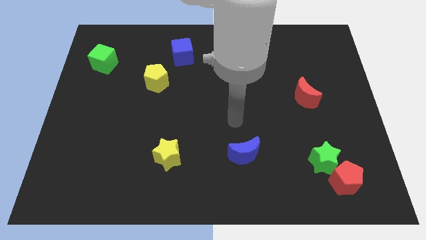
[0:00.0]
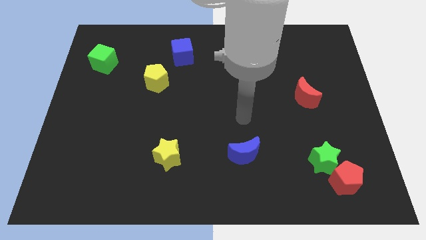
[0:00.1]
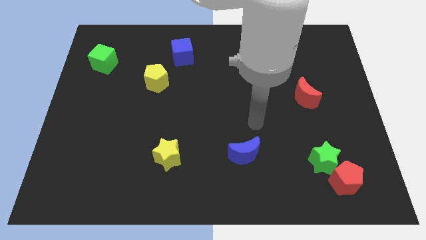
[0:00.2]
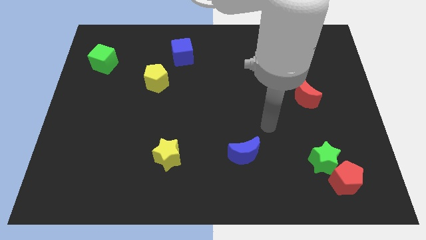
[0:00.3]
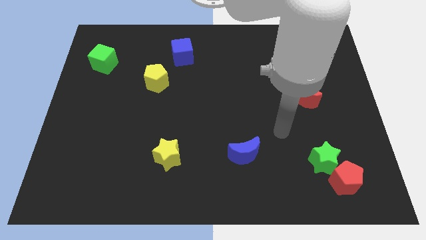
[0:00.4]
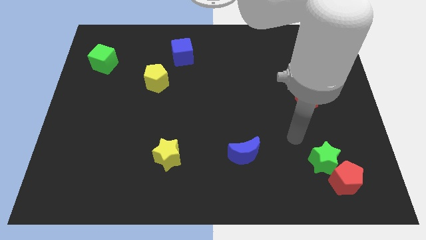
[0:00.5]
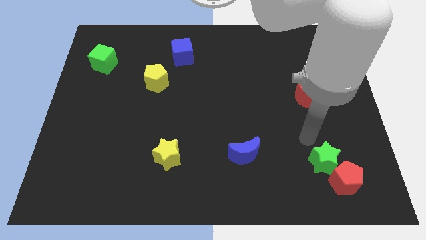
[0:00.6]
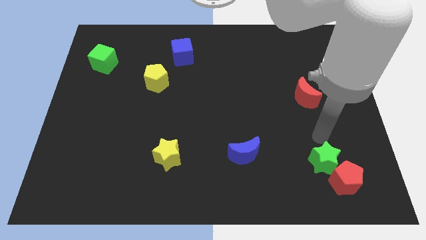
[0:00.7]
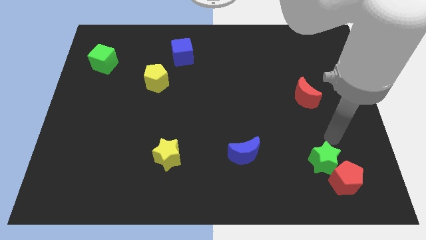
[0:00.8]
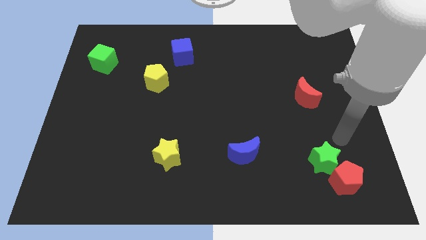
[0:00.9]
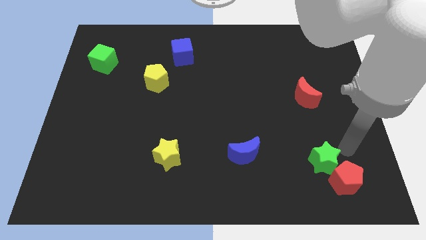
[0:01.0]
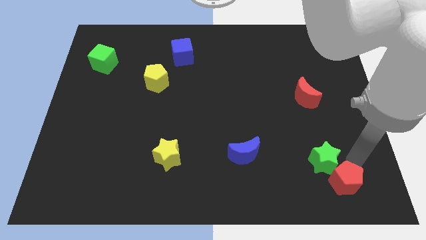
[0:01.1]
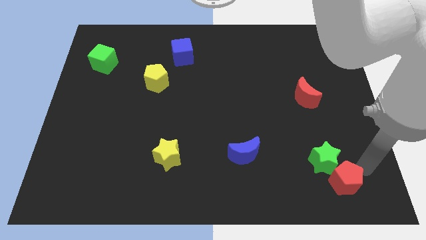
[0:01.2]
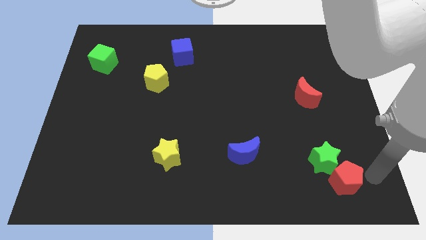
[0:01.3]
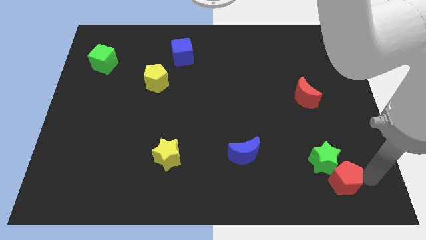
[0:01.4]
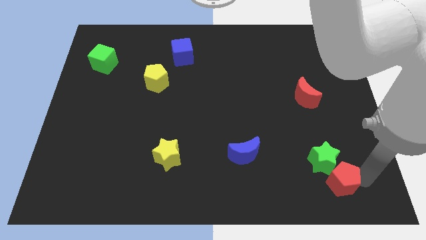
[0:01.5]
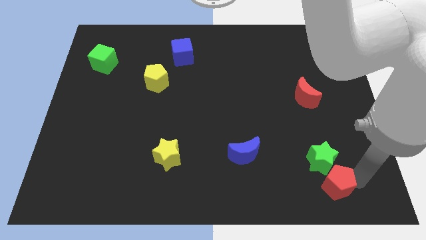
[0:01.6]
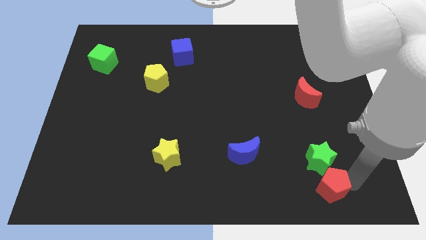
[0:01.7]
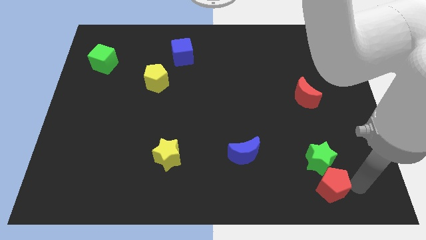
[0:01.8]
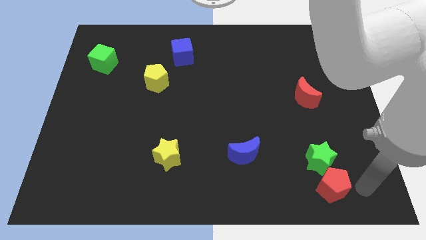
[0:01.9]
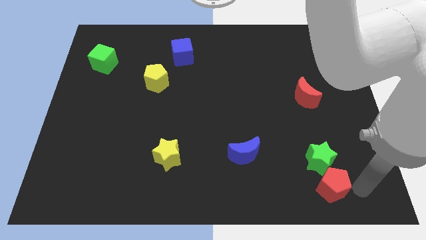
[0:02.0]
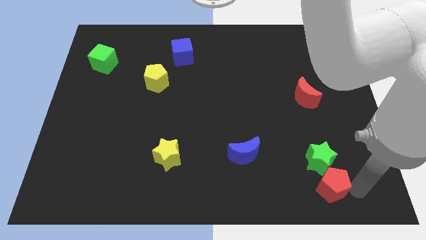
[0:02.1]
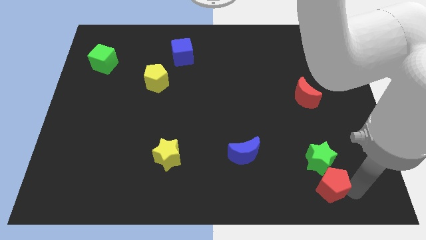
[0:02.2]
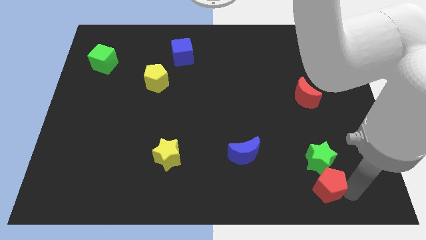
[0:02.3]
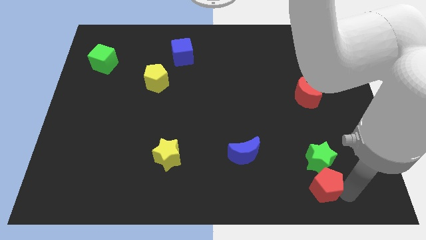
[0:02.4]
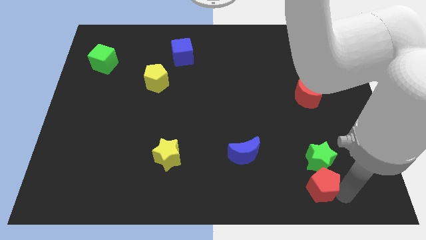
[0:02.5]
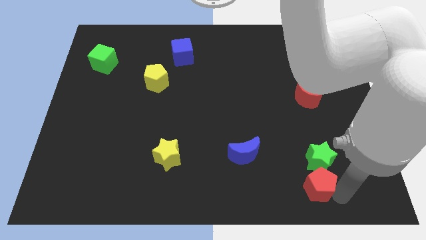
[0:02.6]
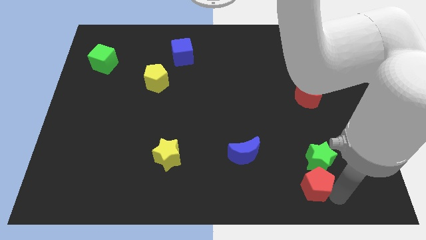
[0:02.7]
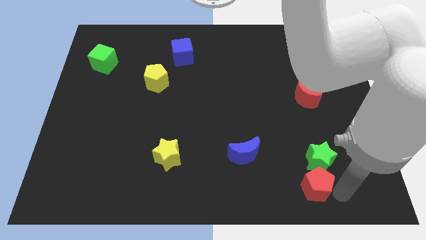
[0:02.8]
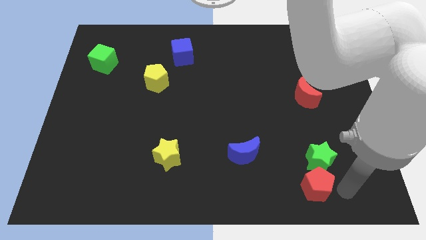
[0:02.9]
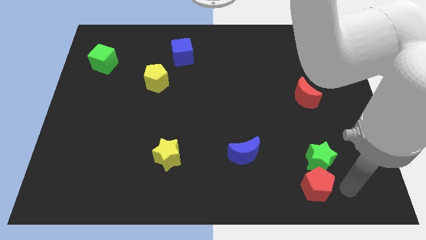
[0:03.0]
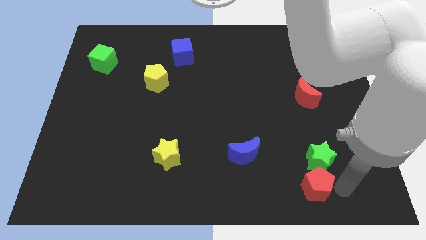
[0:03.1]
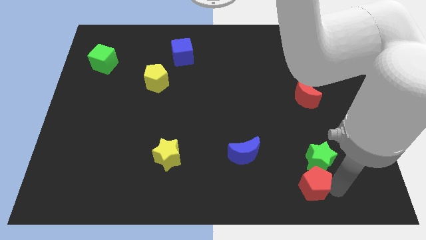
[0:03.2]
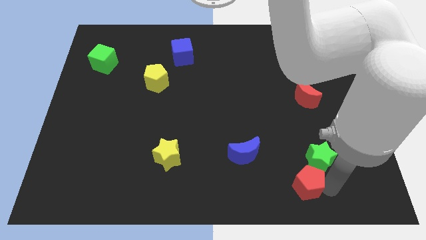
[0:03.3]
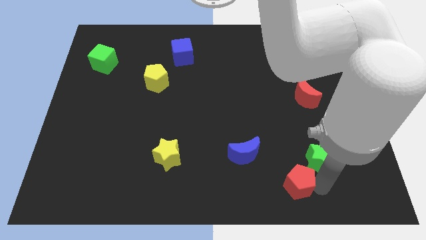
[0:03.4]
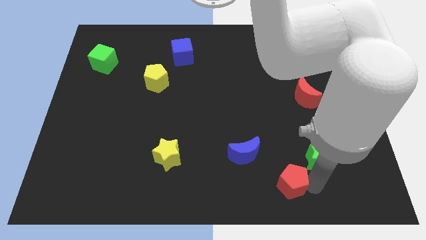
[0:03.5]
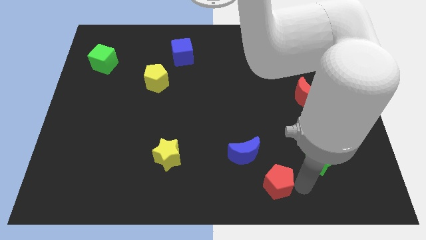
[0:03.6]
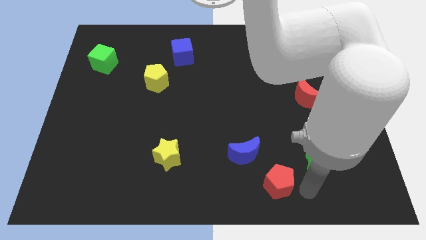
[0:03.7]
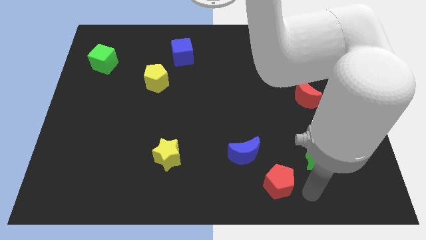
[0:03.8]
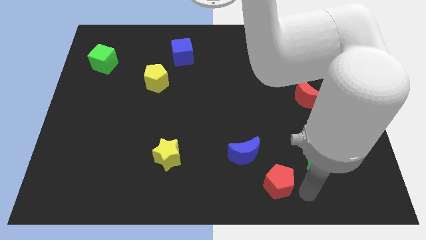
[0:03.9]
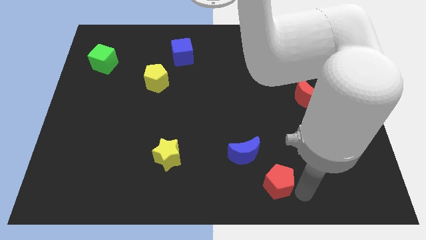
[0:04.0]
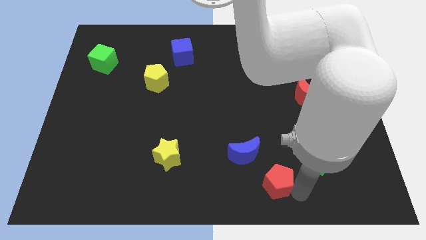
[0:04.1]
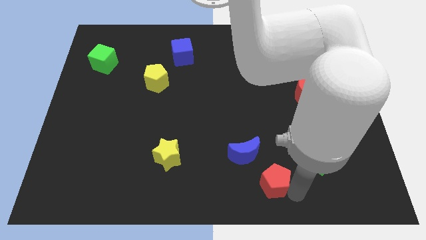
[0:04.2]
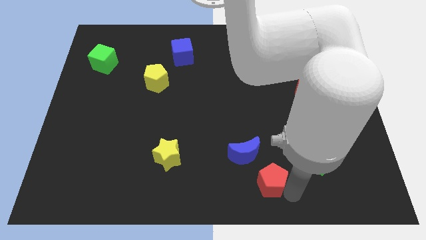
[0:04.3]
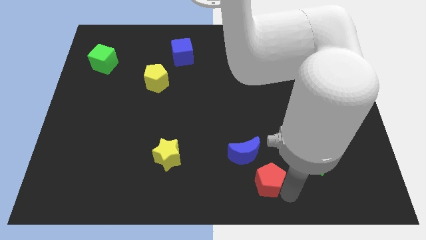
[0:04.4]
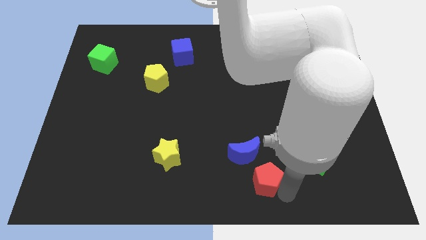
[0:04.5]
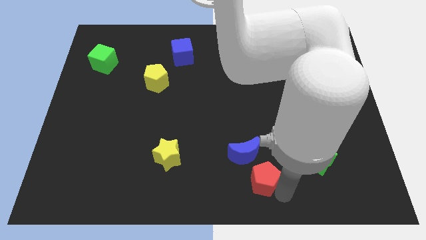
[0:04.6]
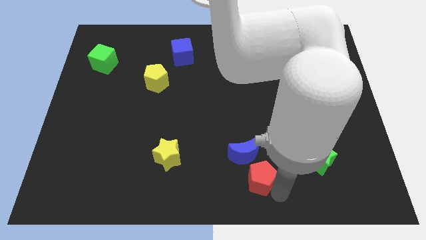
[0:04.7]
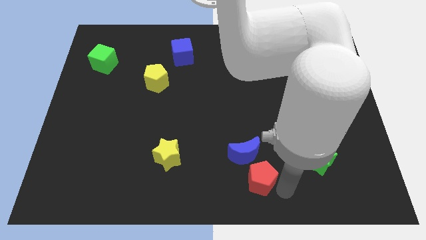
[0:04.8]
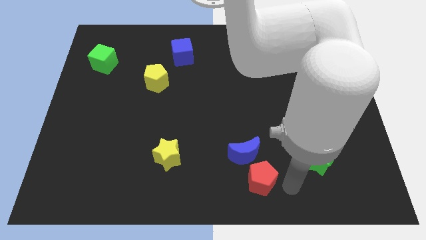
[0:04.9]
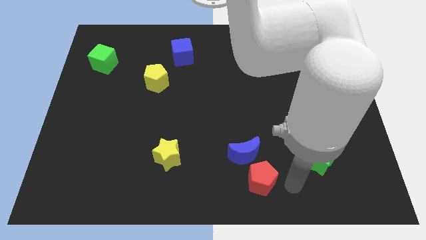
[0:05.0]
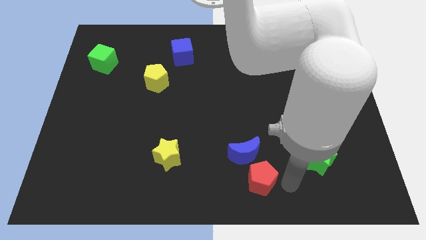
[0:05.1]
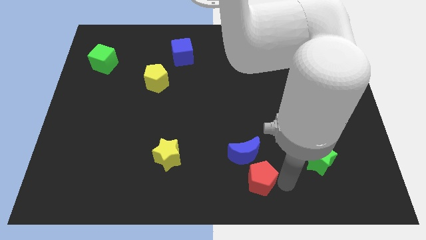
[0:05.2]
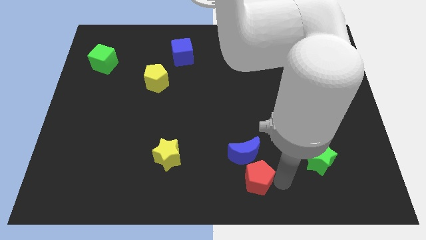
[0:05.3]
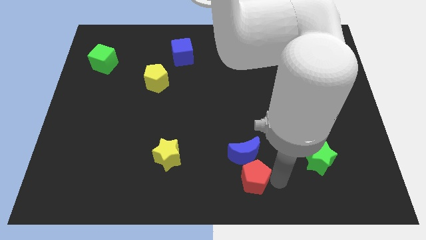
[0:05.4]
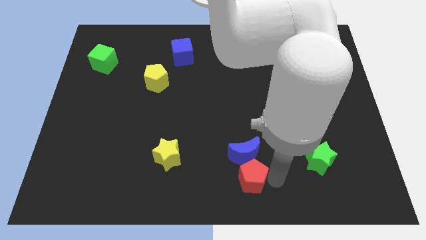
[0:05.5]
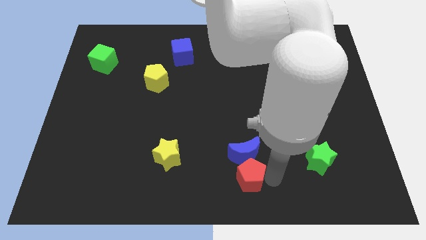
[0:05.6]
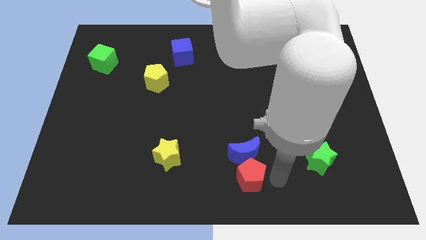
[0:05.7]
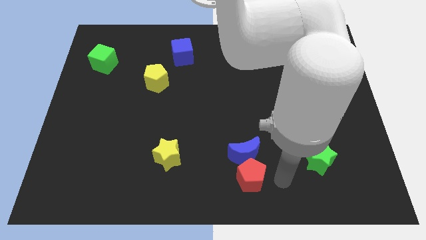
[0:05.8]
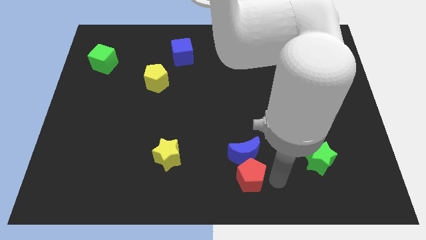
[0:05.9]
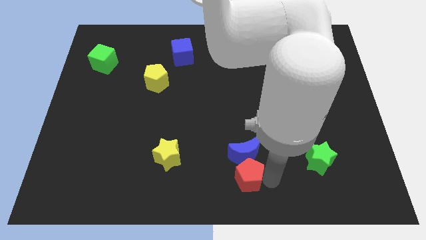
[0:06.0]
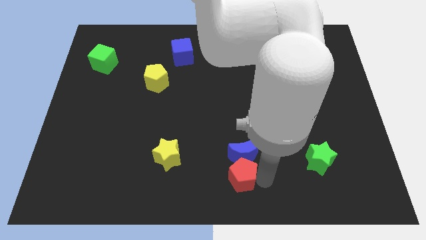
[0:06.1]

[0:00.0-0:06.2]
slide the red pentagon left

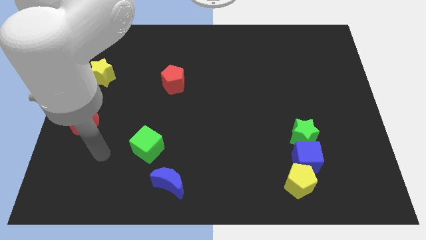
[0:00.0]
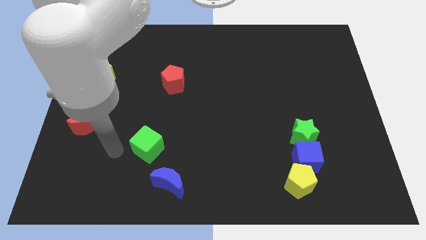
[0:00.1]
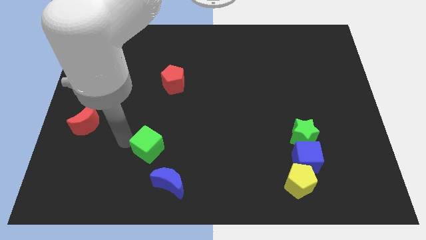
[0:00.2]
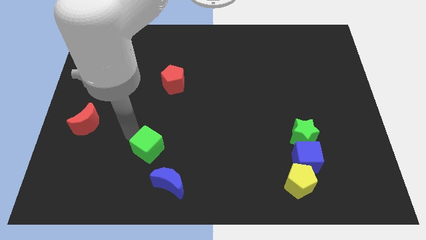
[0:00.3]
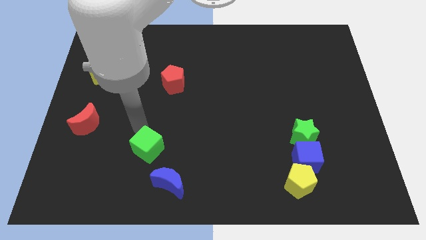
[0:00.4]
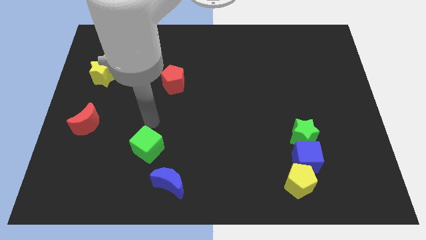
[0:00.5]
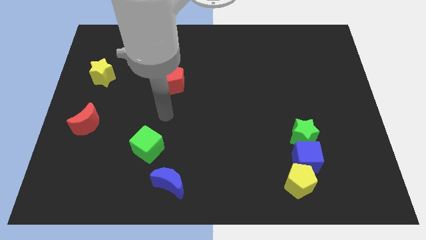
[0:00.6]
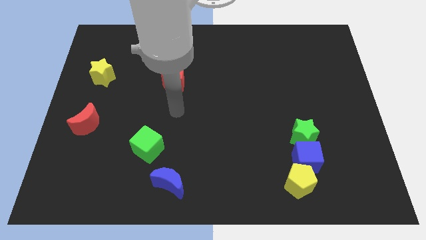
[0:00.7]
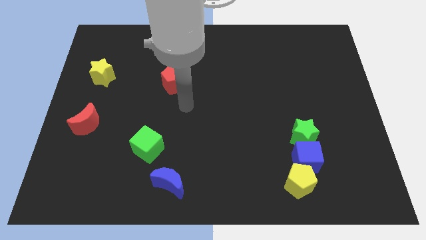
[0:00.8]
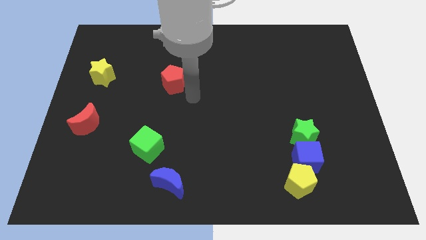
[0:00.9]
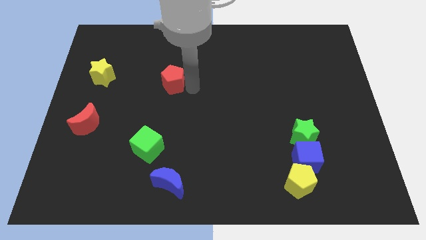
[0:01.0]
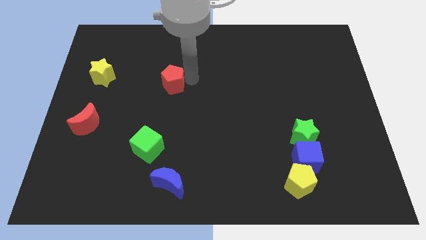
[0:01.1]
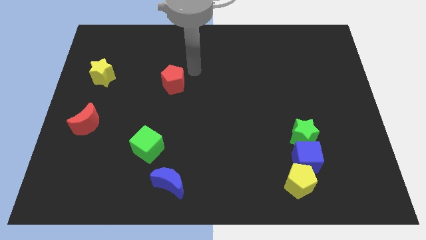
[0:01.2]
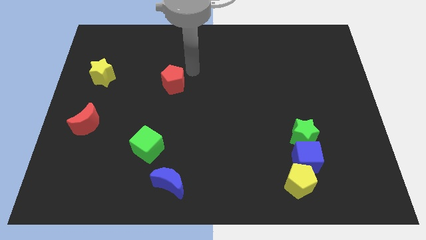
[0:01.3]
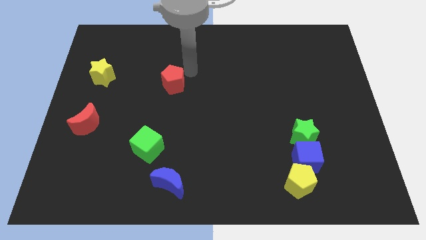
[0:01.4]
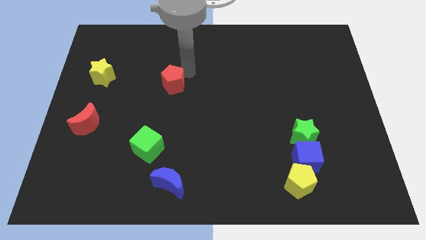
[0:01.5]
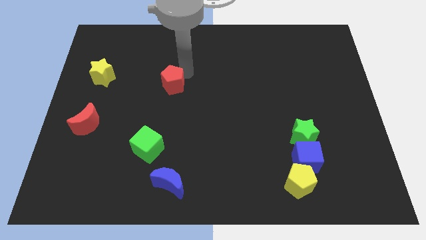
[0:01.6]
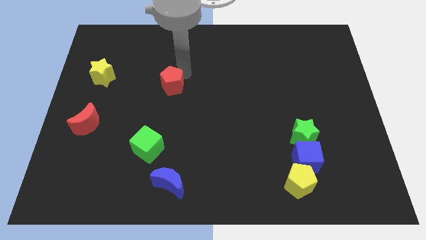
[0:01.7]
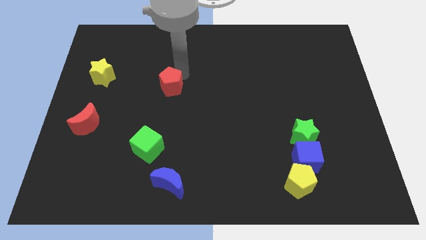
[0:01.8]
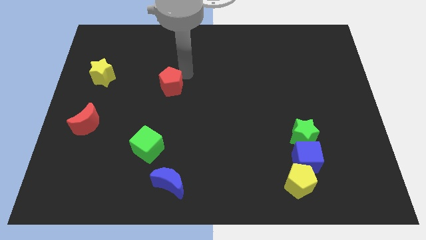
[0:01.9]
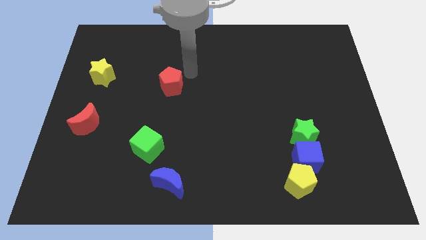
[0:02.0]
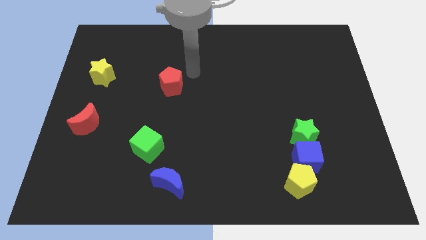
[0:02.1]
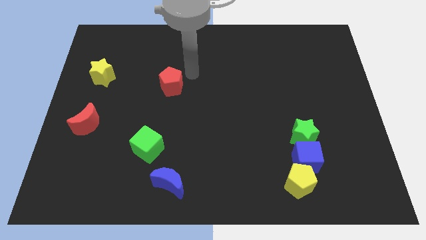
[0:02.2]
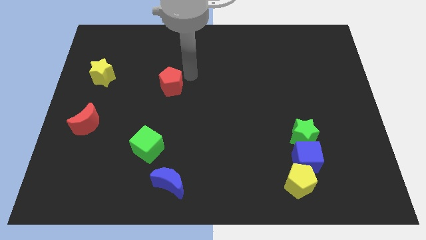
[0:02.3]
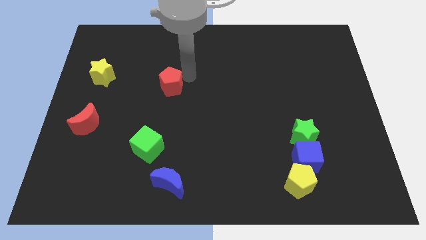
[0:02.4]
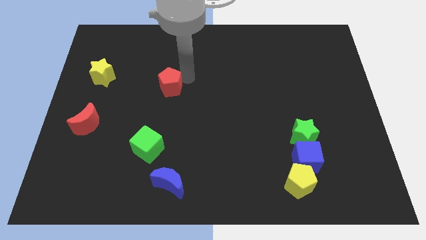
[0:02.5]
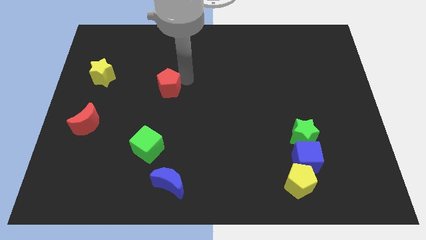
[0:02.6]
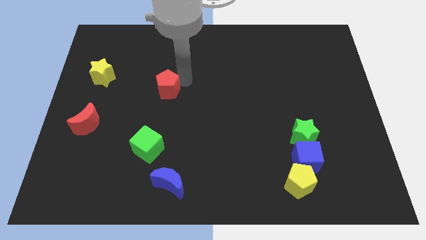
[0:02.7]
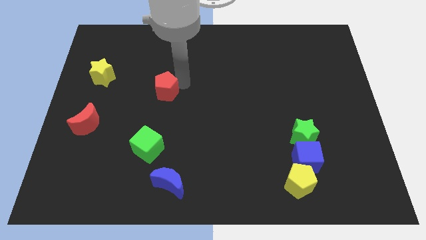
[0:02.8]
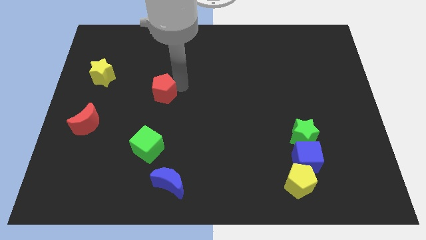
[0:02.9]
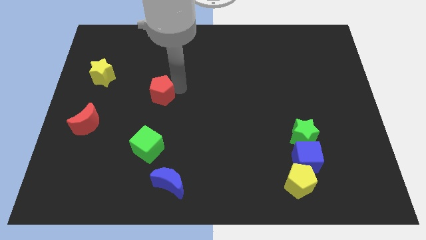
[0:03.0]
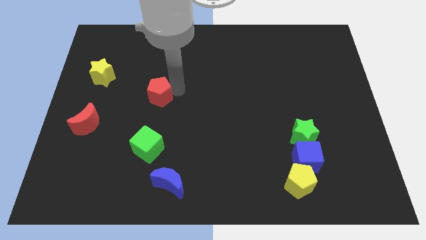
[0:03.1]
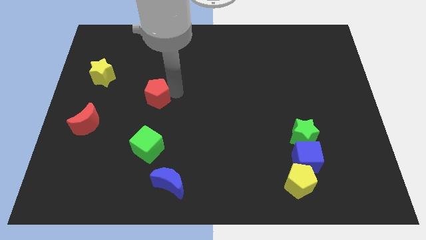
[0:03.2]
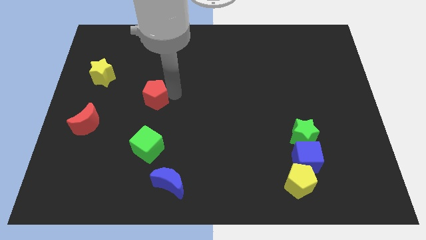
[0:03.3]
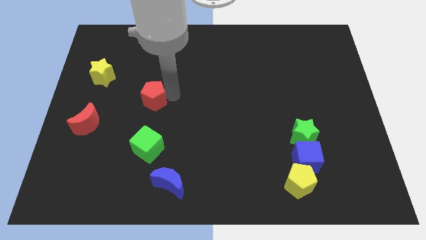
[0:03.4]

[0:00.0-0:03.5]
push the red pentagon a little diagonally down and to the left
